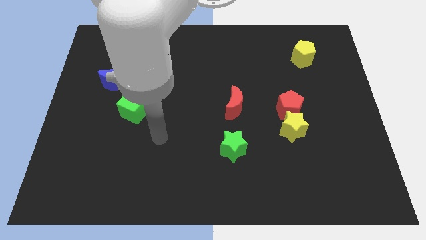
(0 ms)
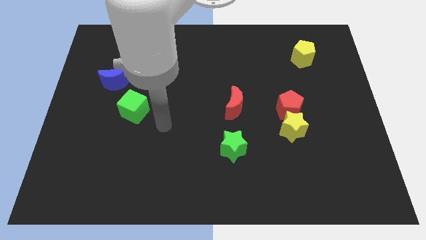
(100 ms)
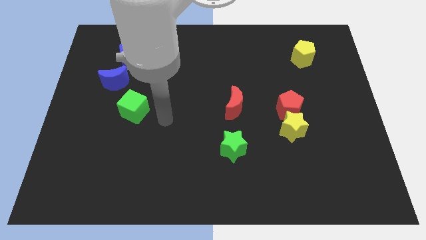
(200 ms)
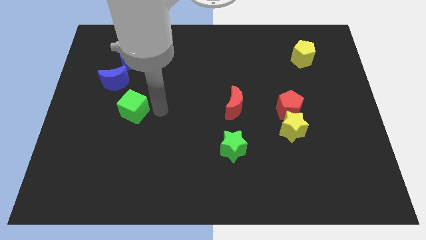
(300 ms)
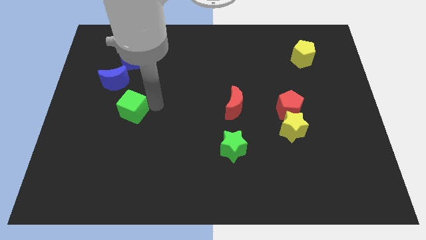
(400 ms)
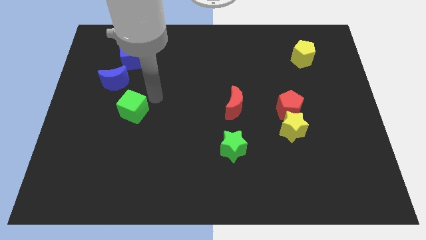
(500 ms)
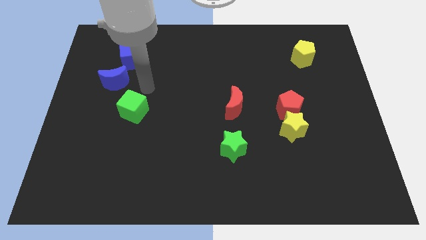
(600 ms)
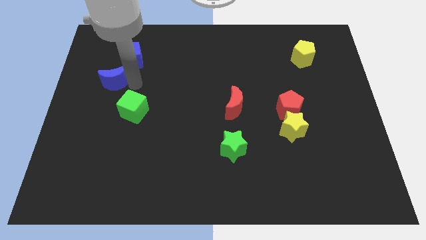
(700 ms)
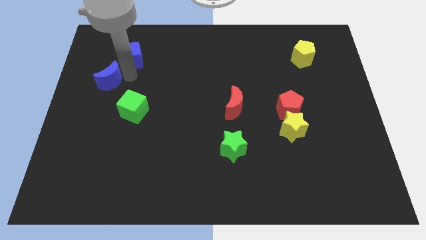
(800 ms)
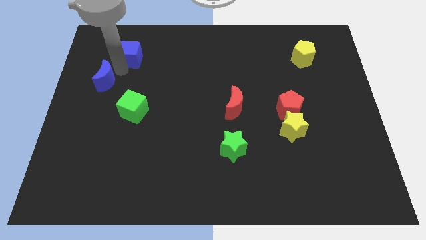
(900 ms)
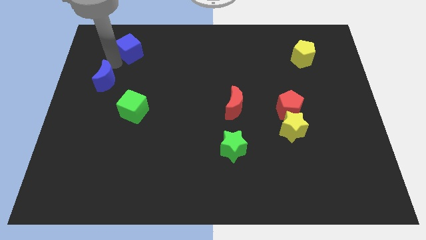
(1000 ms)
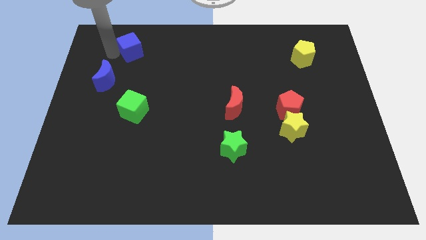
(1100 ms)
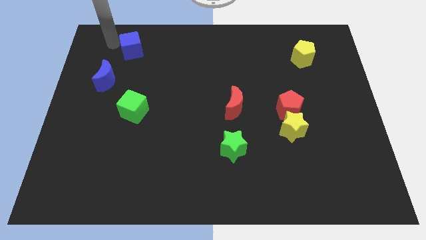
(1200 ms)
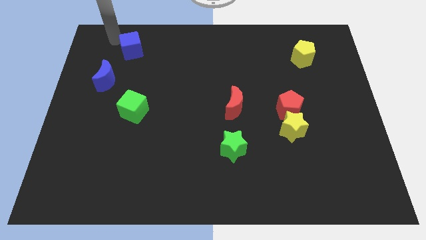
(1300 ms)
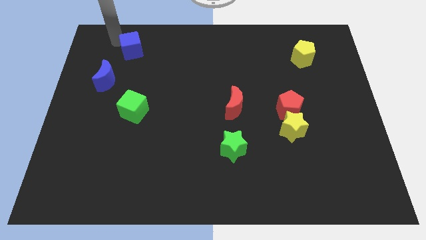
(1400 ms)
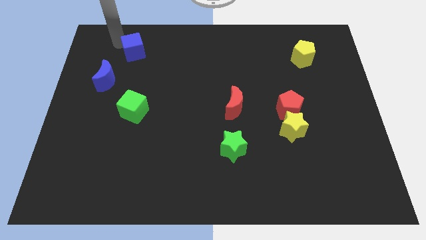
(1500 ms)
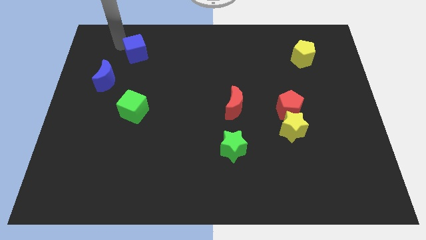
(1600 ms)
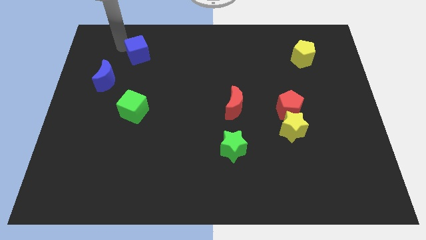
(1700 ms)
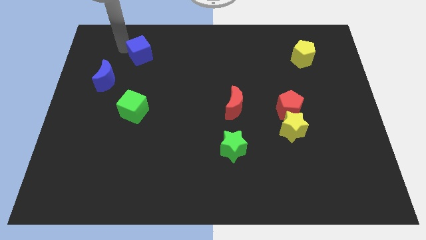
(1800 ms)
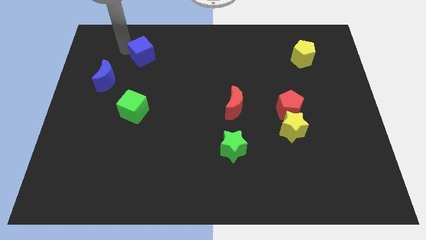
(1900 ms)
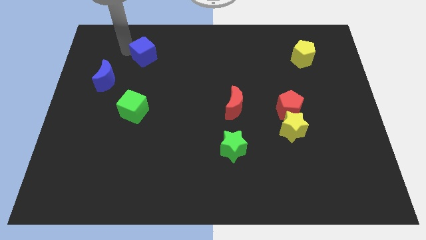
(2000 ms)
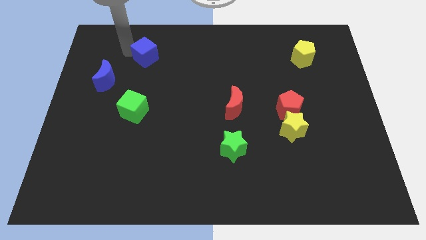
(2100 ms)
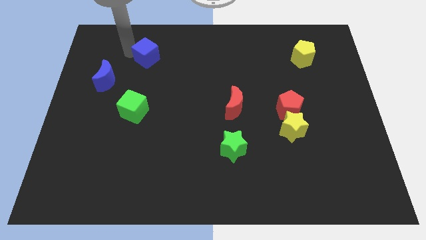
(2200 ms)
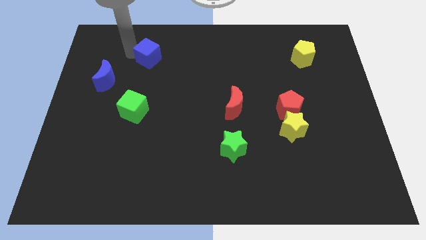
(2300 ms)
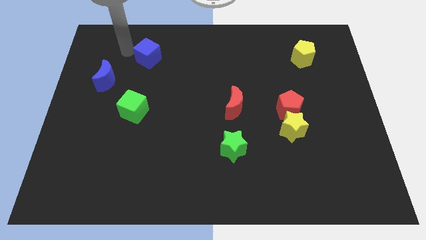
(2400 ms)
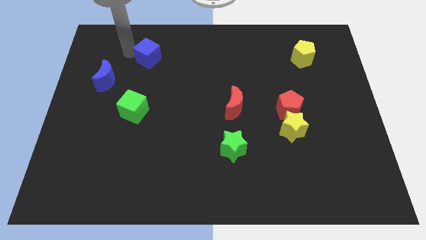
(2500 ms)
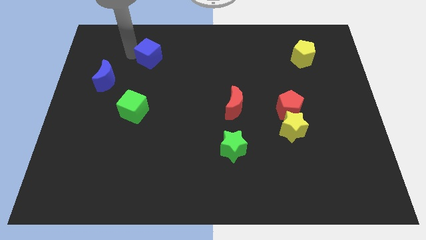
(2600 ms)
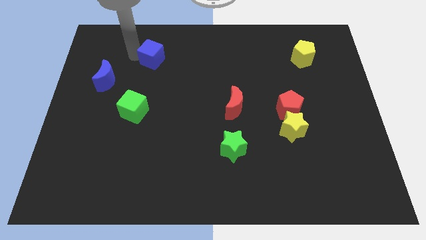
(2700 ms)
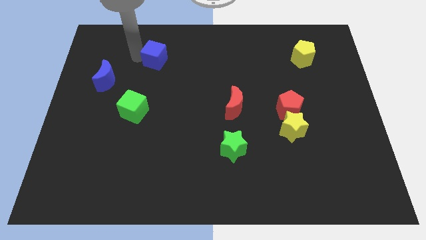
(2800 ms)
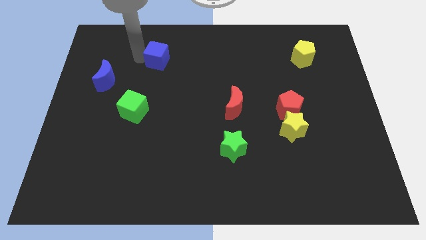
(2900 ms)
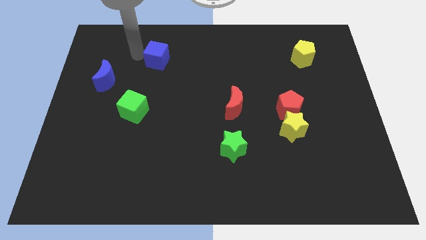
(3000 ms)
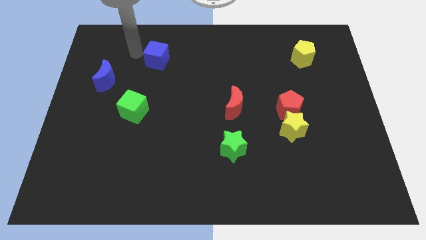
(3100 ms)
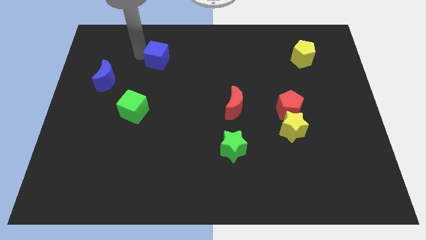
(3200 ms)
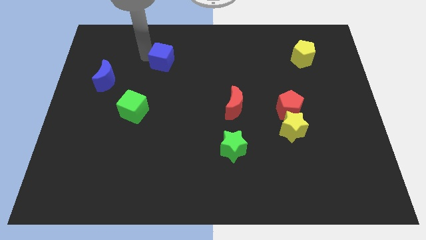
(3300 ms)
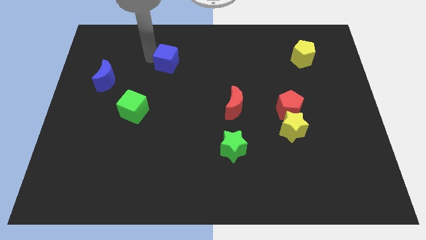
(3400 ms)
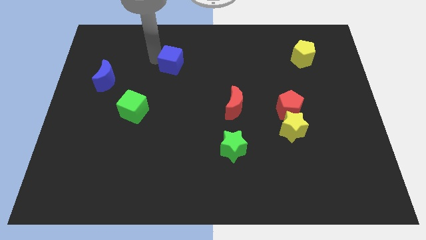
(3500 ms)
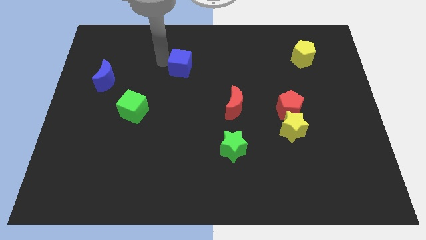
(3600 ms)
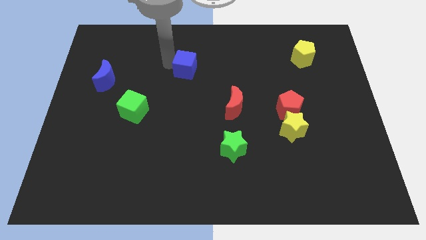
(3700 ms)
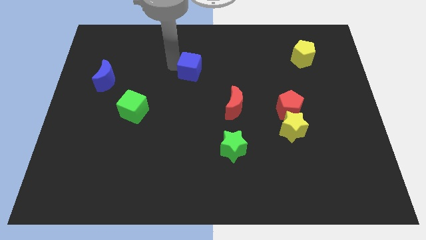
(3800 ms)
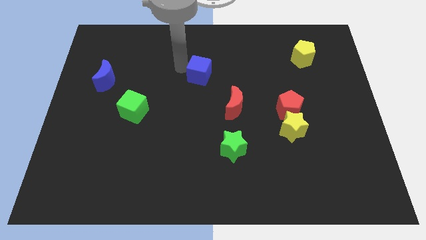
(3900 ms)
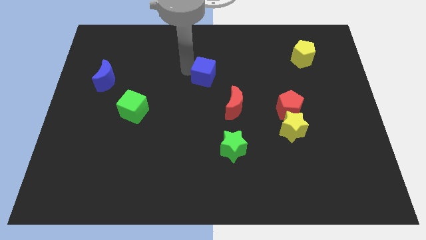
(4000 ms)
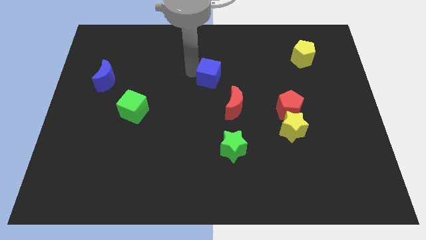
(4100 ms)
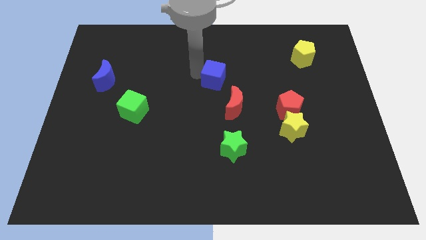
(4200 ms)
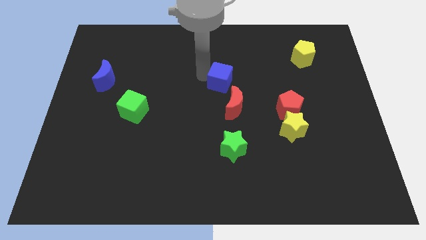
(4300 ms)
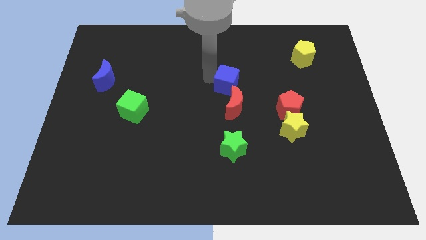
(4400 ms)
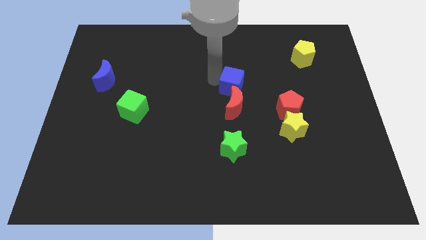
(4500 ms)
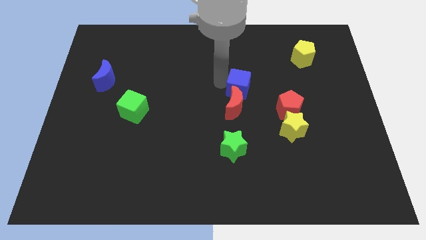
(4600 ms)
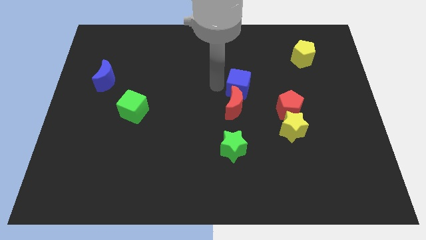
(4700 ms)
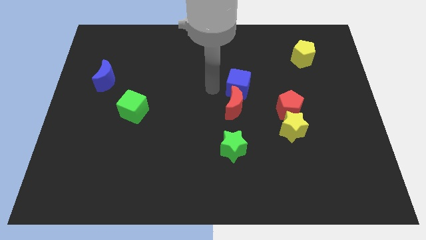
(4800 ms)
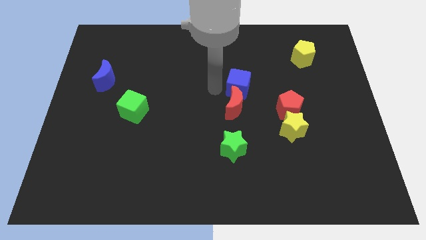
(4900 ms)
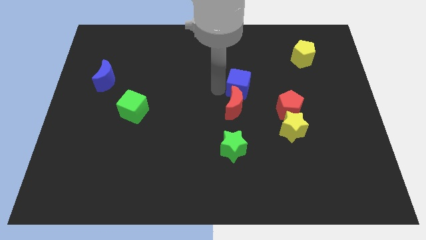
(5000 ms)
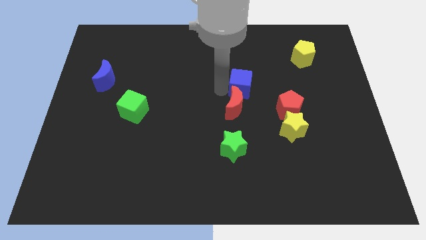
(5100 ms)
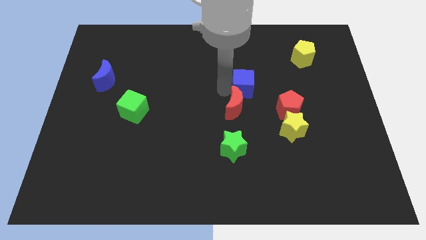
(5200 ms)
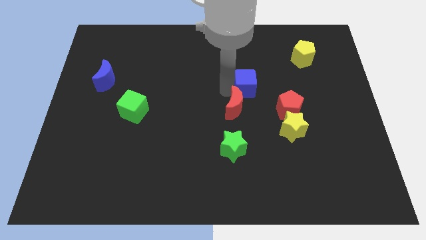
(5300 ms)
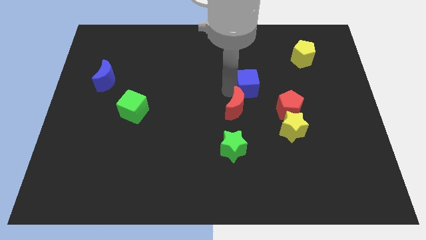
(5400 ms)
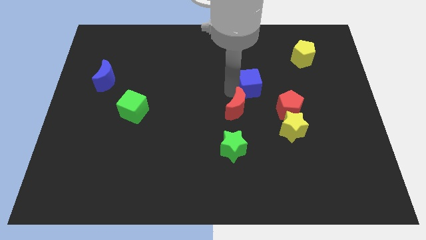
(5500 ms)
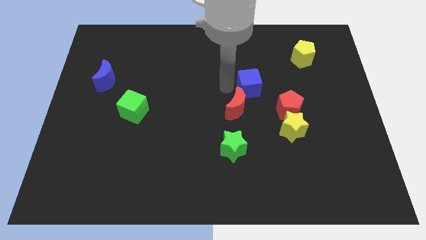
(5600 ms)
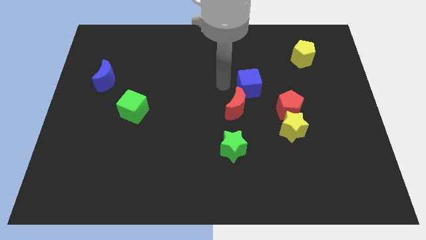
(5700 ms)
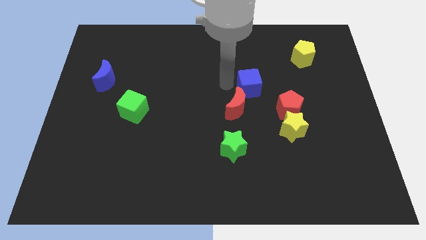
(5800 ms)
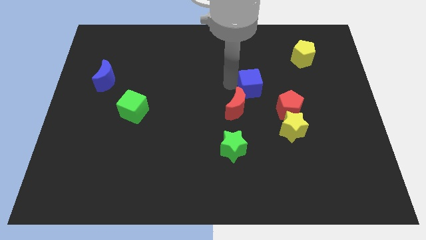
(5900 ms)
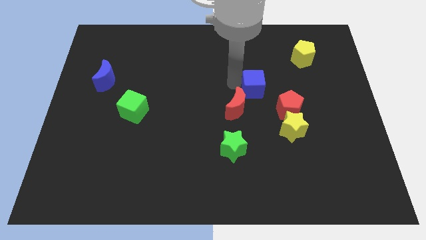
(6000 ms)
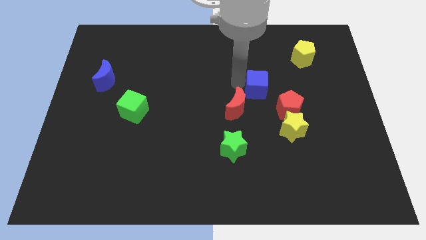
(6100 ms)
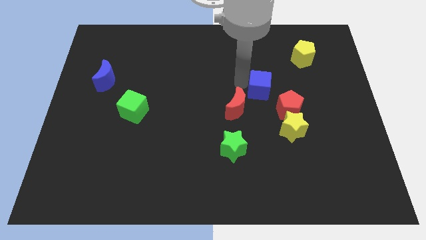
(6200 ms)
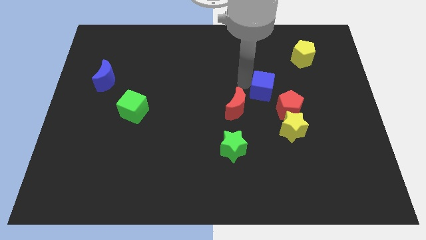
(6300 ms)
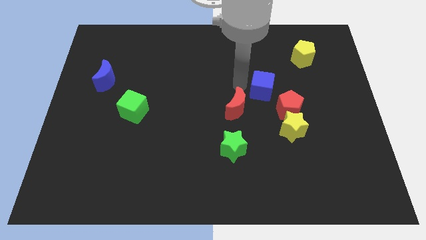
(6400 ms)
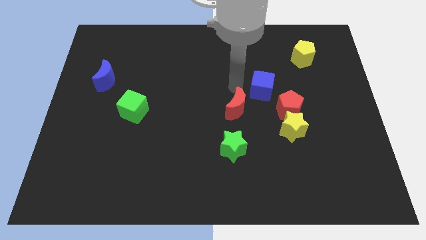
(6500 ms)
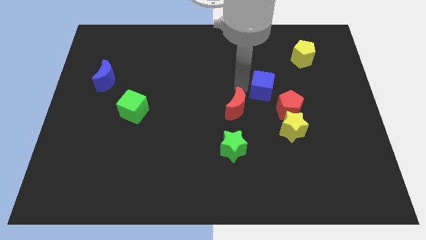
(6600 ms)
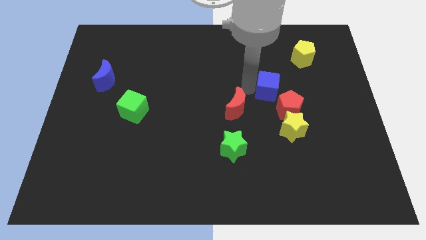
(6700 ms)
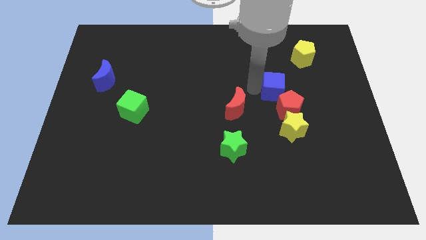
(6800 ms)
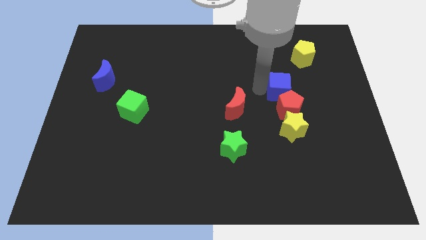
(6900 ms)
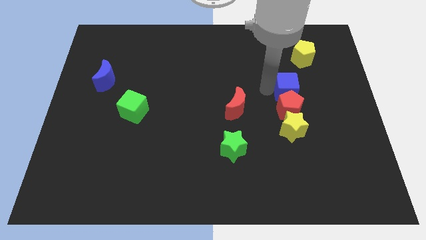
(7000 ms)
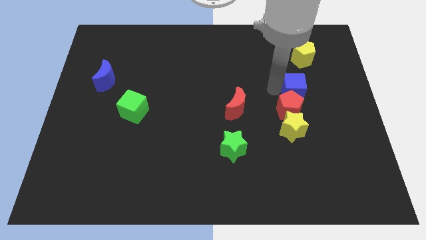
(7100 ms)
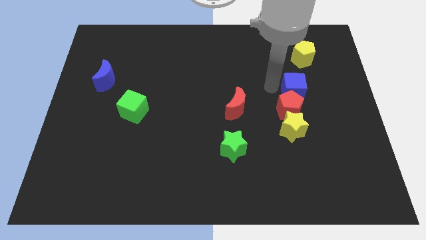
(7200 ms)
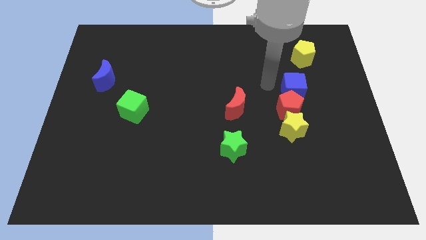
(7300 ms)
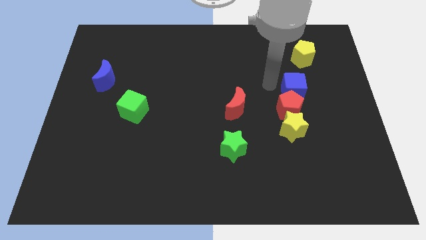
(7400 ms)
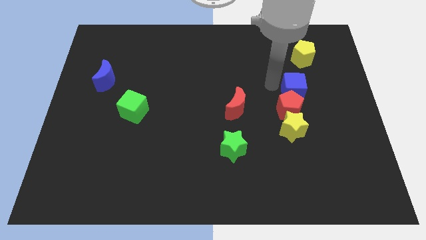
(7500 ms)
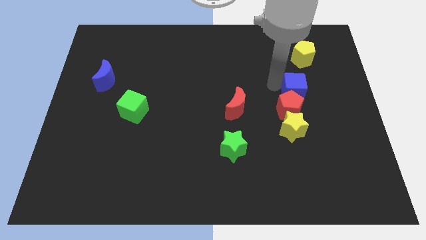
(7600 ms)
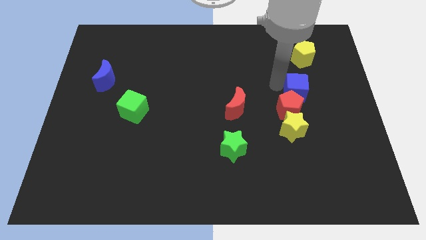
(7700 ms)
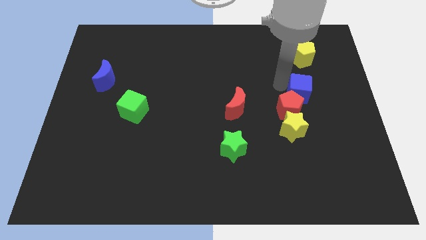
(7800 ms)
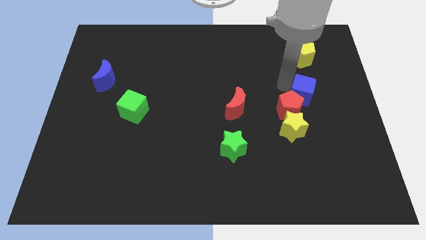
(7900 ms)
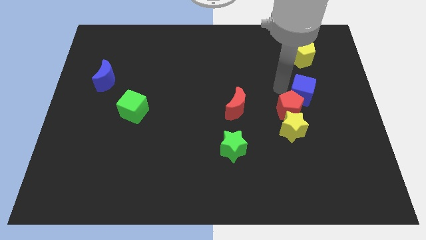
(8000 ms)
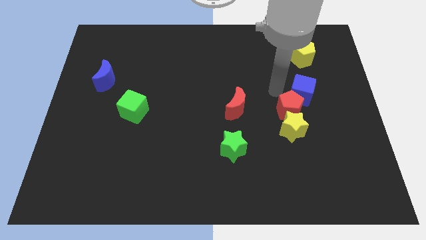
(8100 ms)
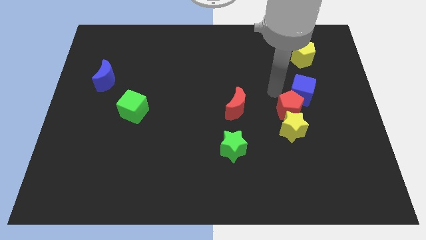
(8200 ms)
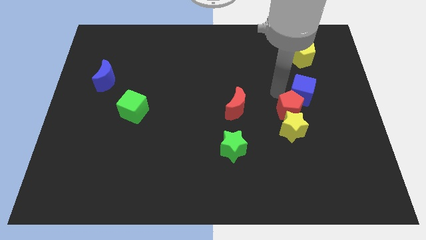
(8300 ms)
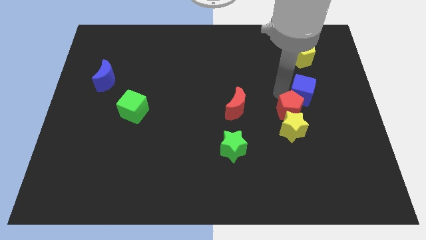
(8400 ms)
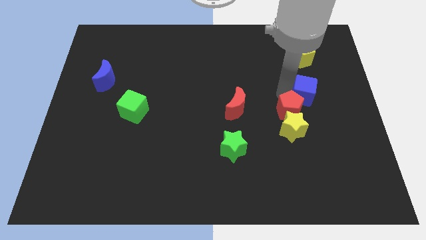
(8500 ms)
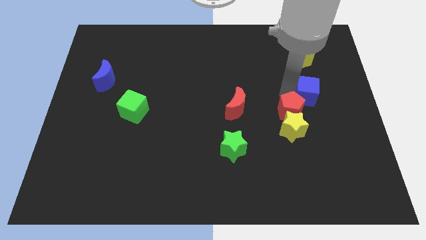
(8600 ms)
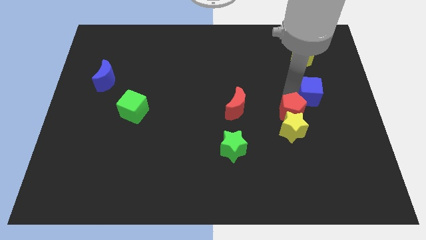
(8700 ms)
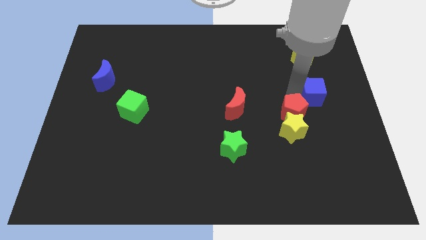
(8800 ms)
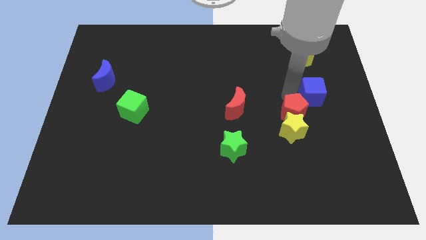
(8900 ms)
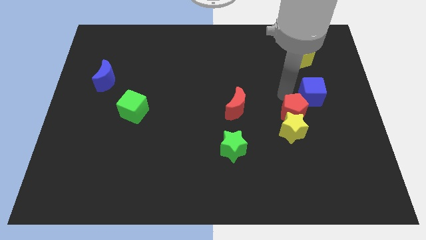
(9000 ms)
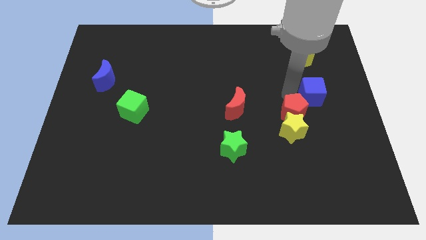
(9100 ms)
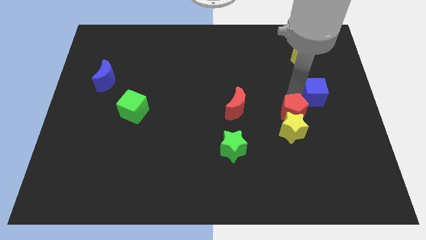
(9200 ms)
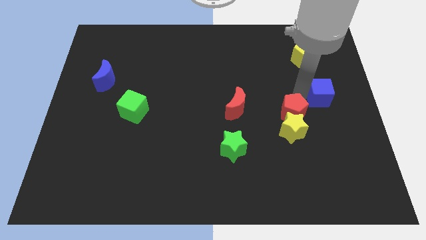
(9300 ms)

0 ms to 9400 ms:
move the blue cube to the center right
